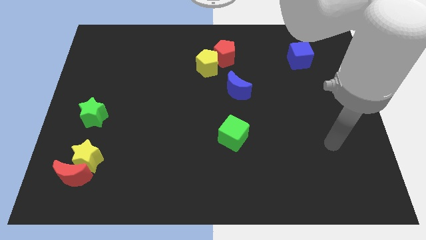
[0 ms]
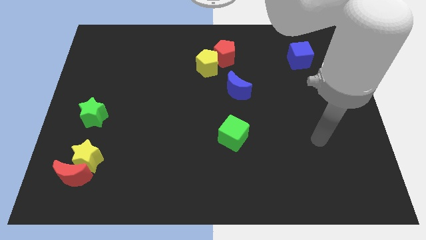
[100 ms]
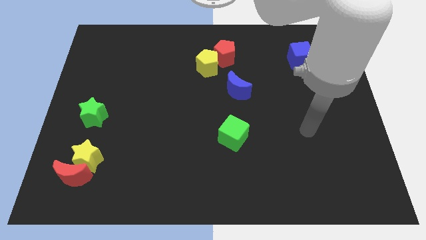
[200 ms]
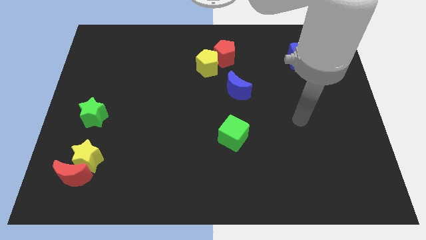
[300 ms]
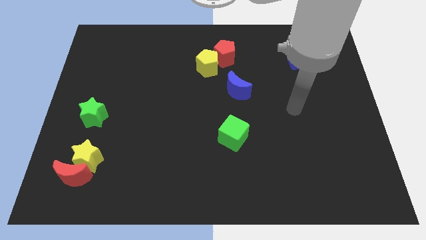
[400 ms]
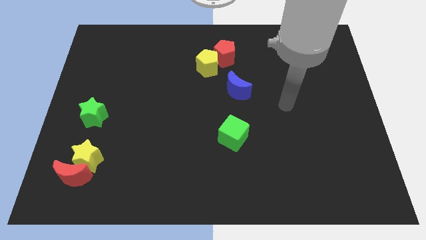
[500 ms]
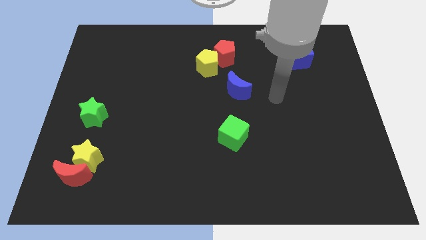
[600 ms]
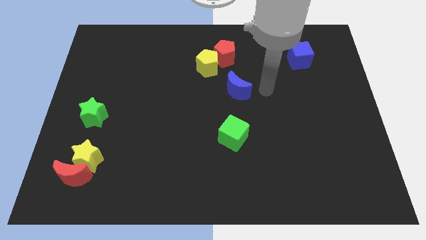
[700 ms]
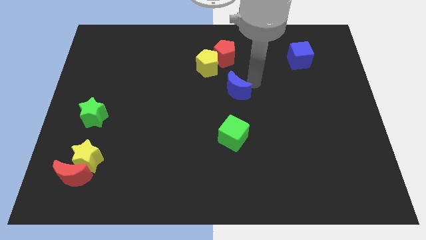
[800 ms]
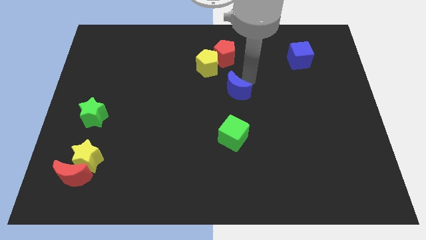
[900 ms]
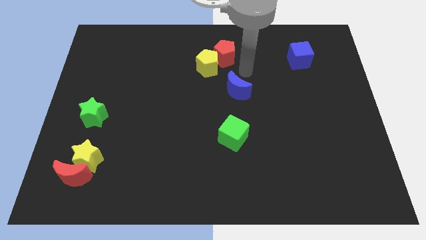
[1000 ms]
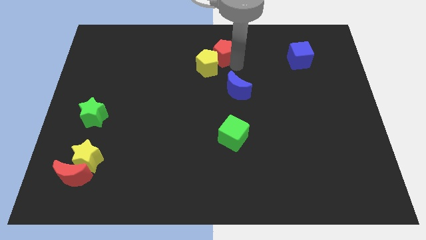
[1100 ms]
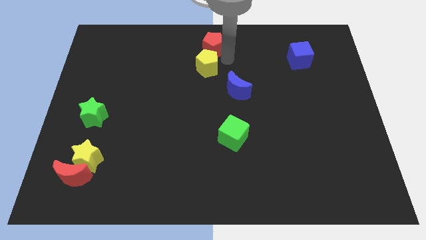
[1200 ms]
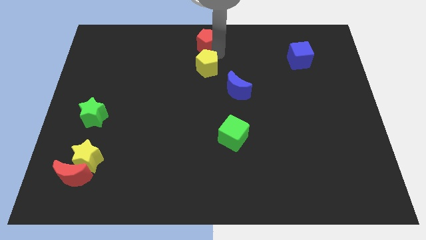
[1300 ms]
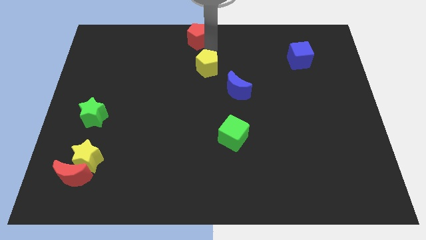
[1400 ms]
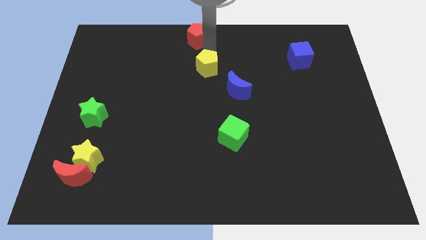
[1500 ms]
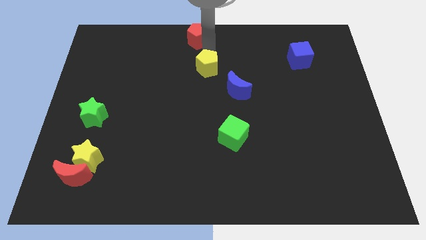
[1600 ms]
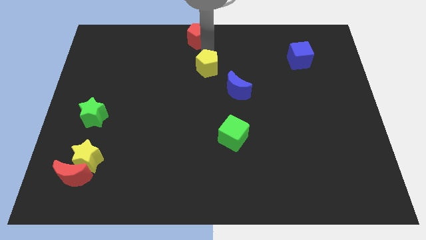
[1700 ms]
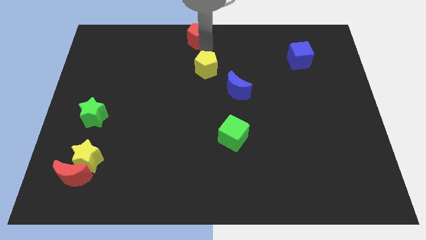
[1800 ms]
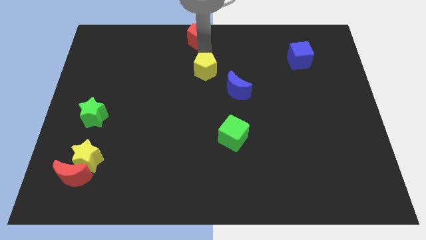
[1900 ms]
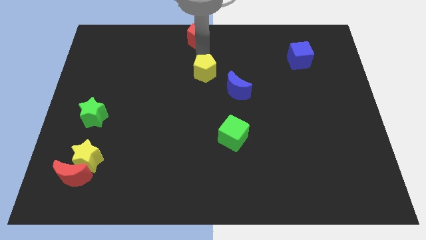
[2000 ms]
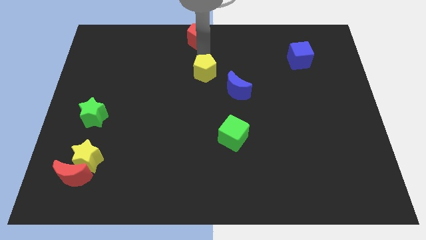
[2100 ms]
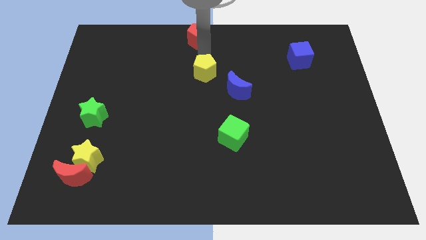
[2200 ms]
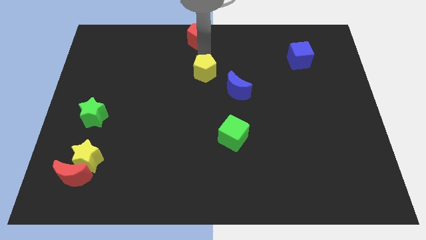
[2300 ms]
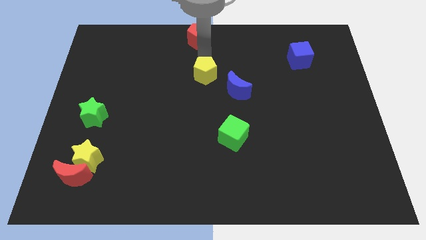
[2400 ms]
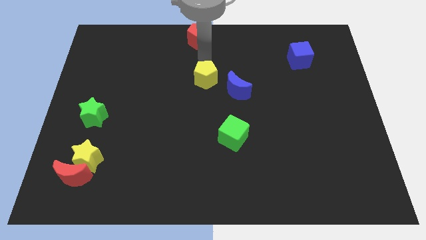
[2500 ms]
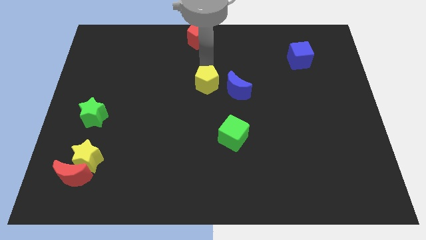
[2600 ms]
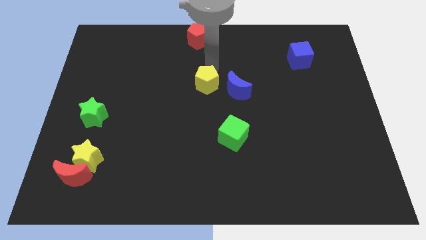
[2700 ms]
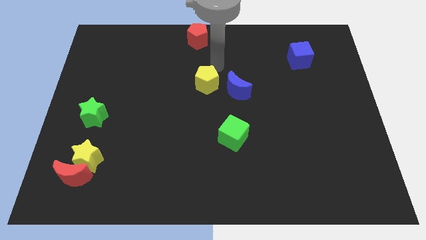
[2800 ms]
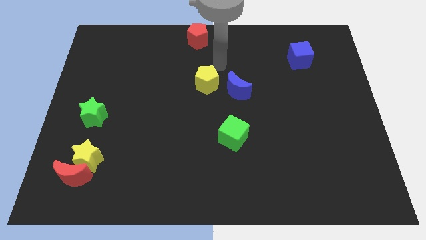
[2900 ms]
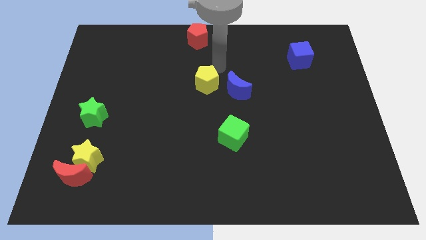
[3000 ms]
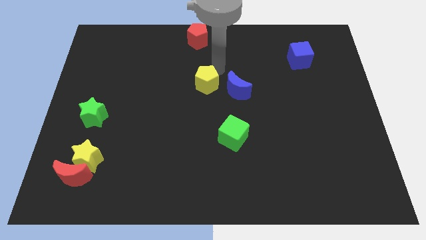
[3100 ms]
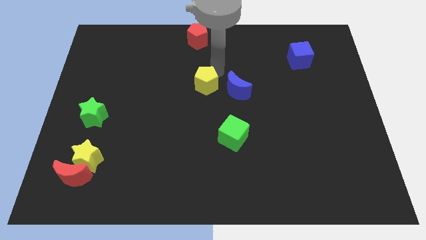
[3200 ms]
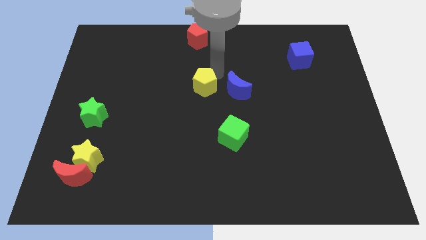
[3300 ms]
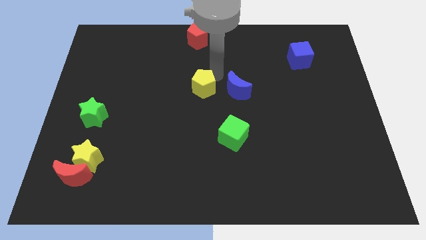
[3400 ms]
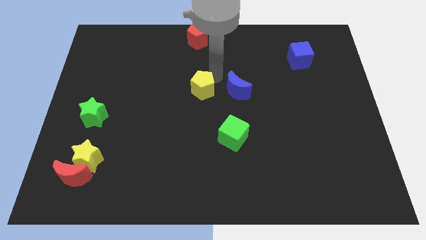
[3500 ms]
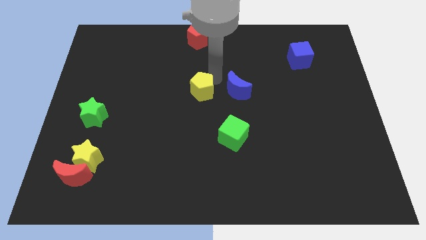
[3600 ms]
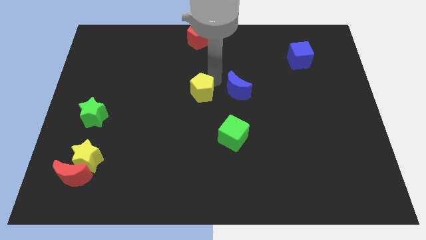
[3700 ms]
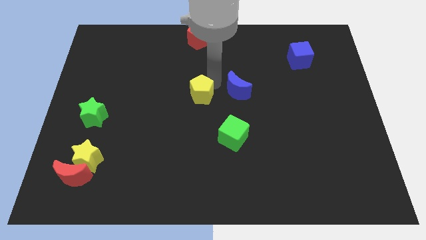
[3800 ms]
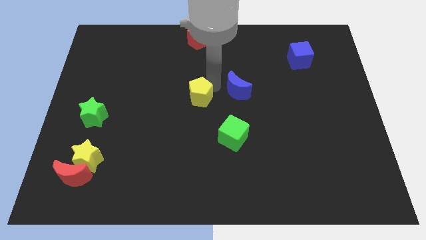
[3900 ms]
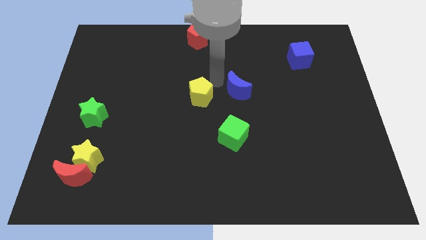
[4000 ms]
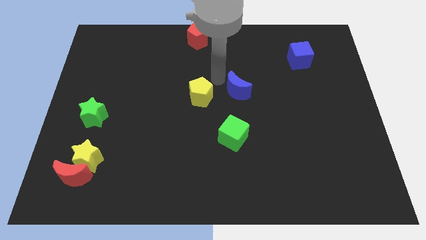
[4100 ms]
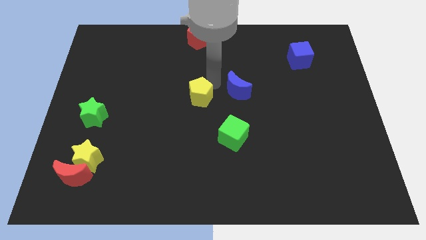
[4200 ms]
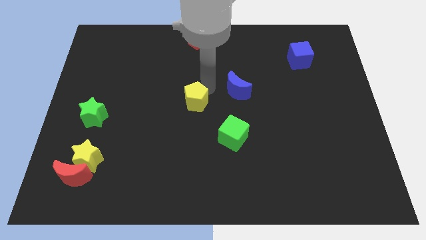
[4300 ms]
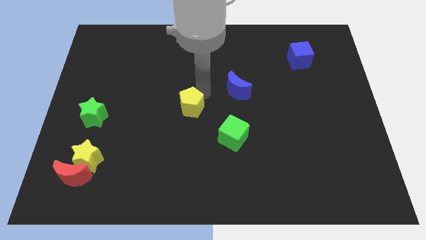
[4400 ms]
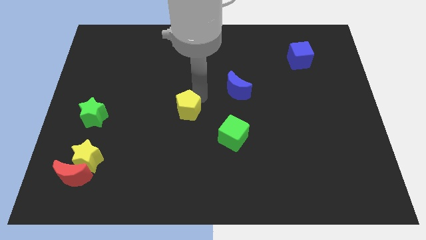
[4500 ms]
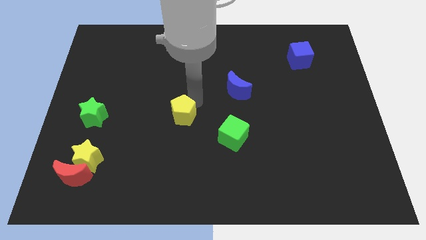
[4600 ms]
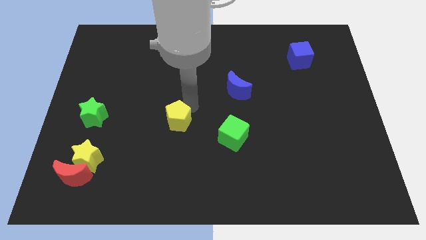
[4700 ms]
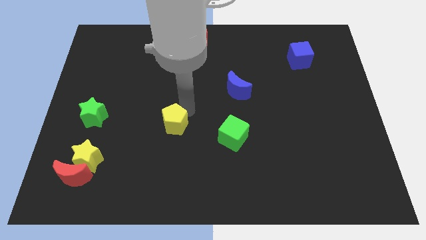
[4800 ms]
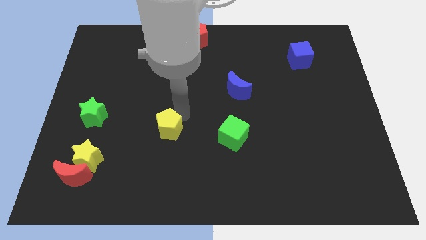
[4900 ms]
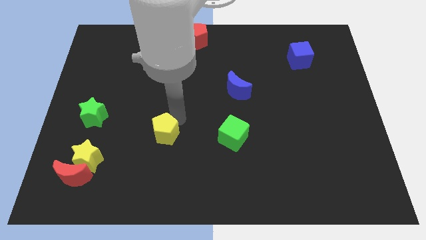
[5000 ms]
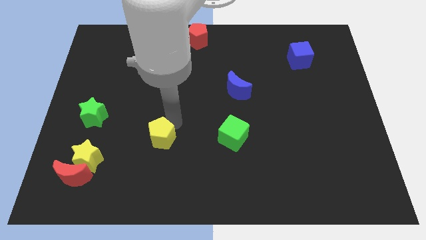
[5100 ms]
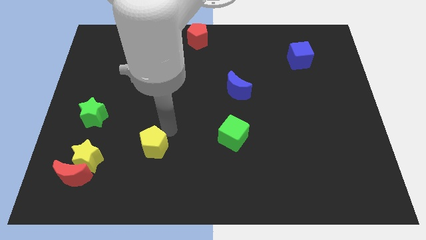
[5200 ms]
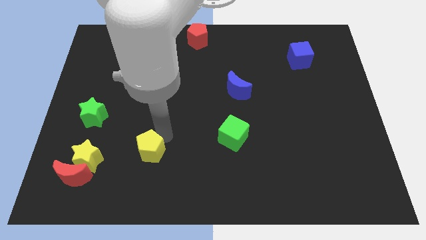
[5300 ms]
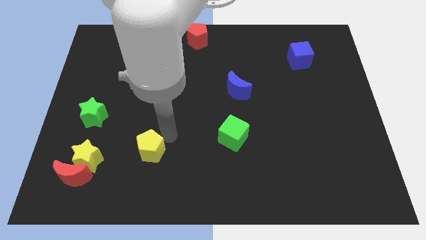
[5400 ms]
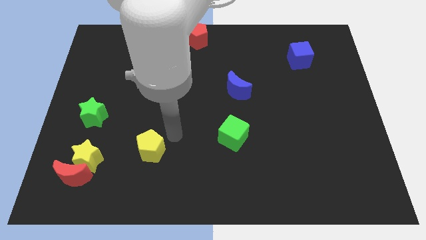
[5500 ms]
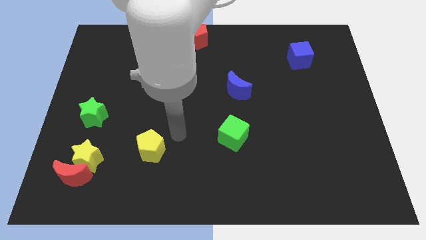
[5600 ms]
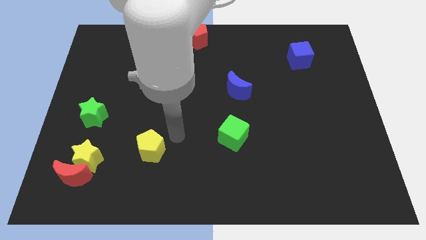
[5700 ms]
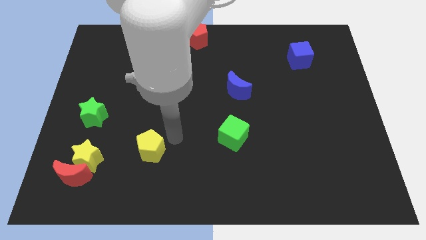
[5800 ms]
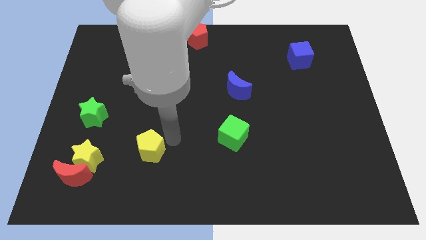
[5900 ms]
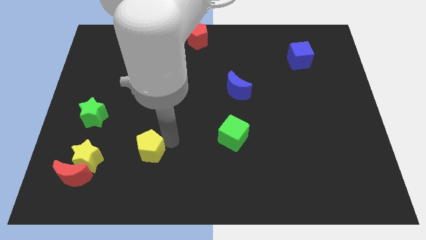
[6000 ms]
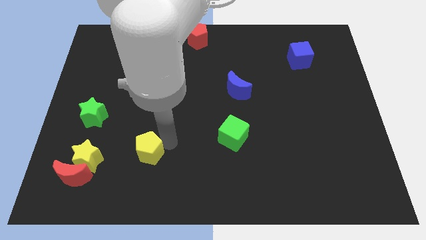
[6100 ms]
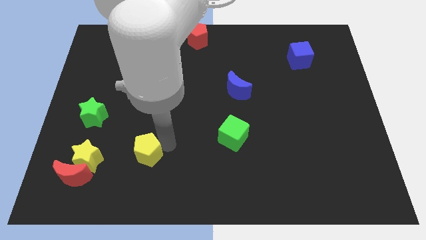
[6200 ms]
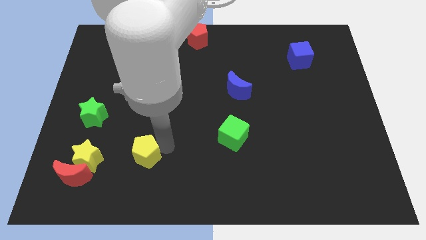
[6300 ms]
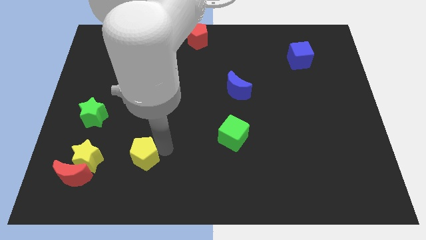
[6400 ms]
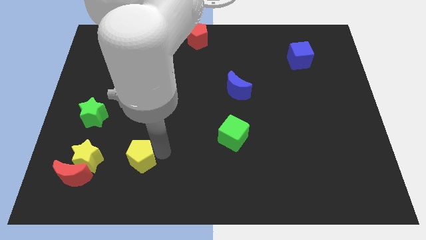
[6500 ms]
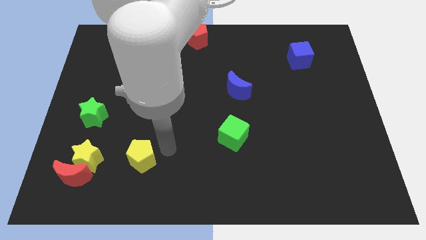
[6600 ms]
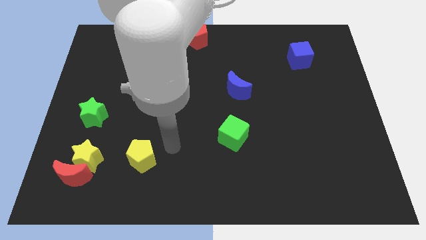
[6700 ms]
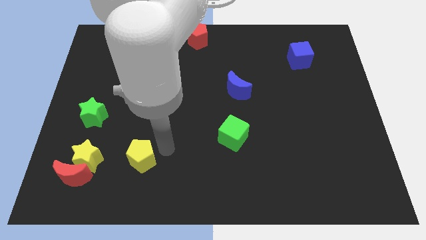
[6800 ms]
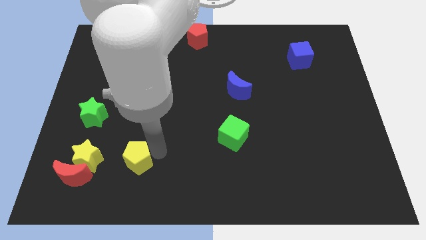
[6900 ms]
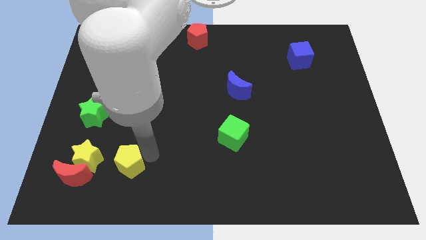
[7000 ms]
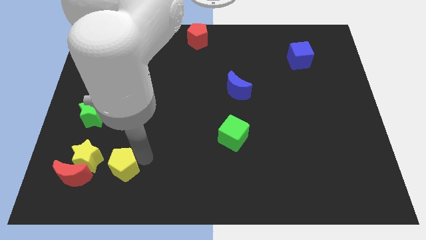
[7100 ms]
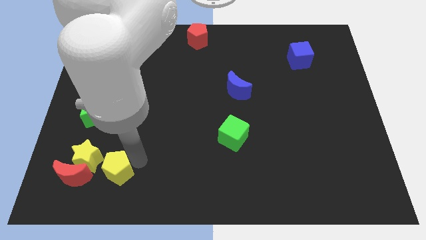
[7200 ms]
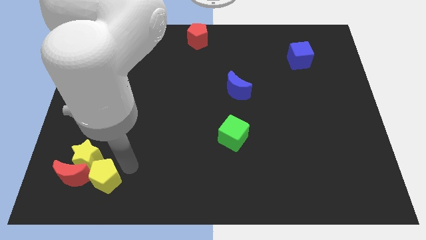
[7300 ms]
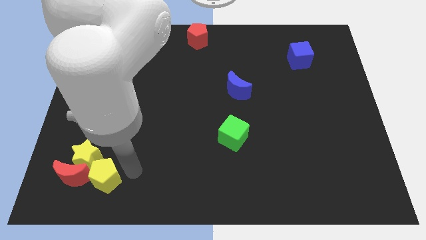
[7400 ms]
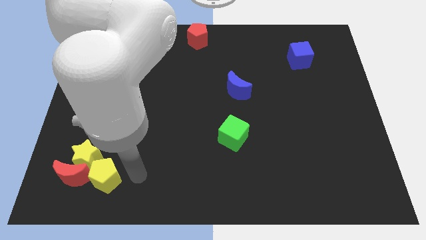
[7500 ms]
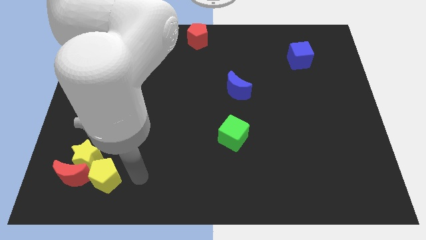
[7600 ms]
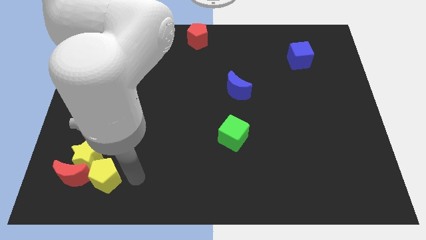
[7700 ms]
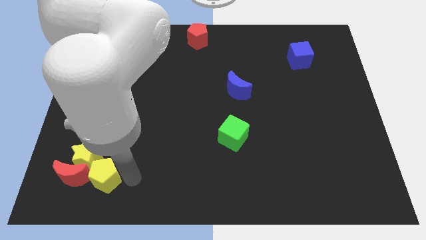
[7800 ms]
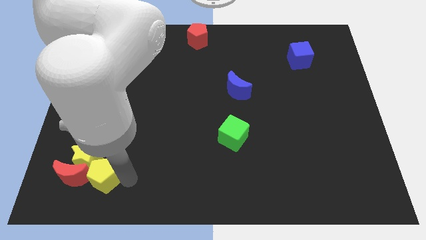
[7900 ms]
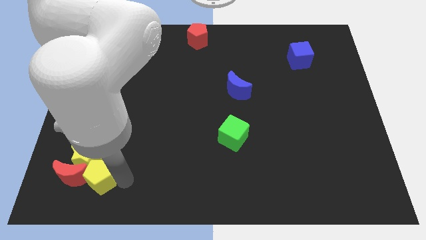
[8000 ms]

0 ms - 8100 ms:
slide the yellow pentagon close to the red moon
